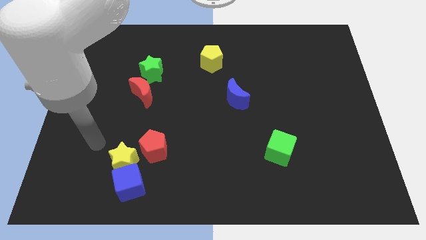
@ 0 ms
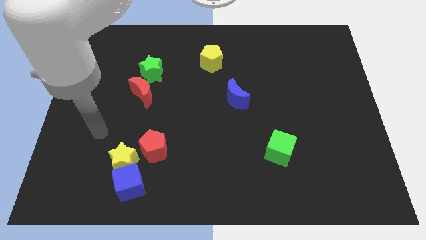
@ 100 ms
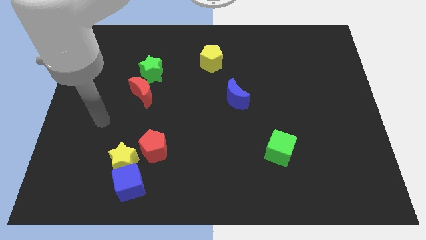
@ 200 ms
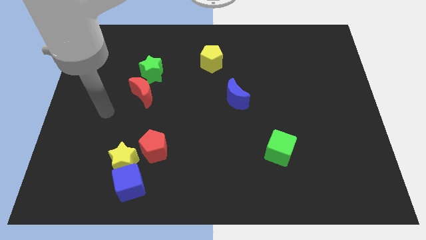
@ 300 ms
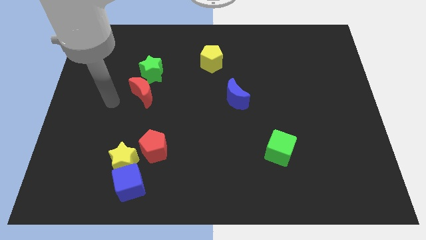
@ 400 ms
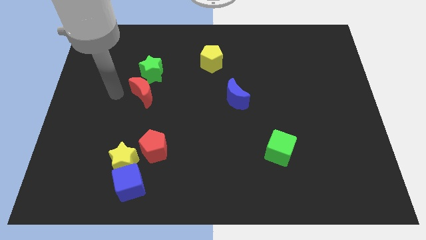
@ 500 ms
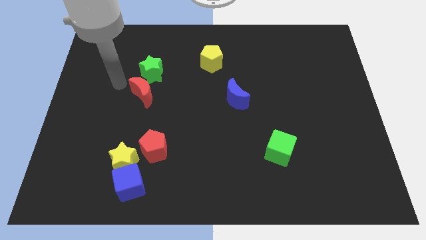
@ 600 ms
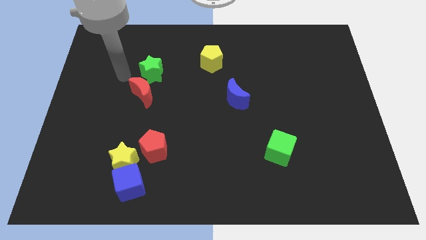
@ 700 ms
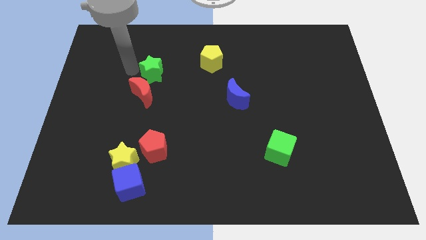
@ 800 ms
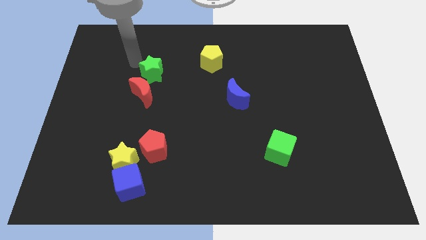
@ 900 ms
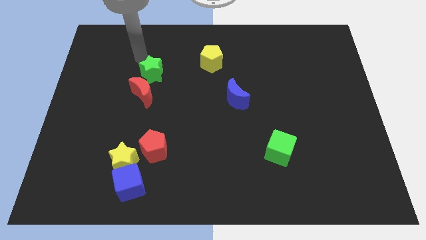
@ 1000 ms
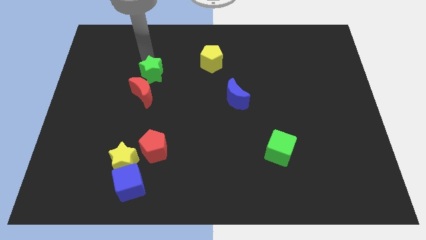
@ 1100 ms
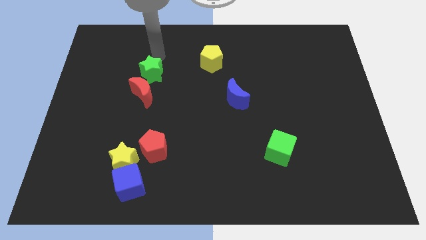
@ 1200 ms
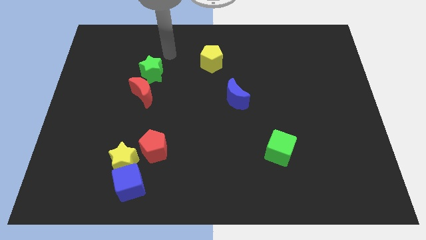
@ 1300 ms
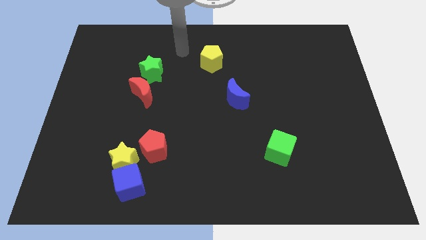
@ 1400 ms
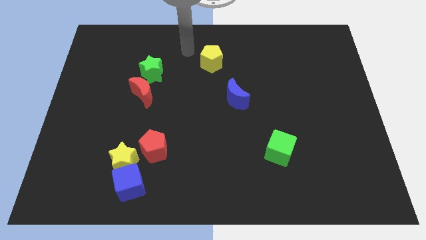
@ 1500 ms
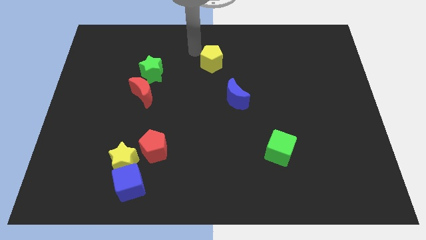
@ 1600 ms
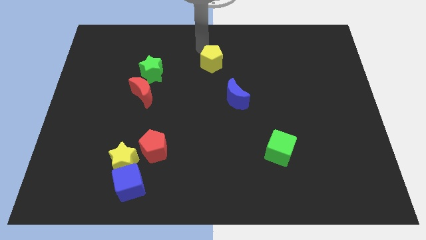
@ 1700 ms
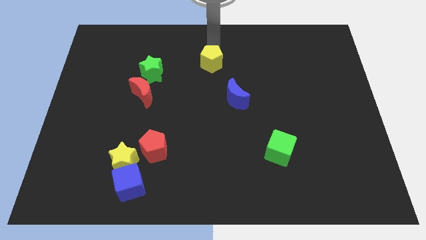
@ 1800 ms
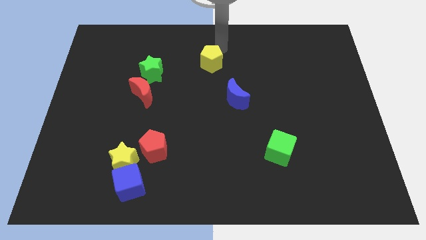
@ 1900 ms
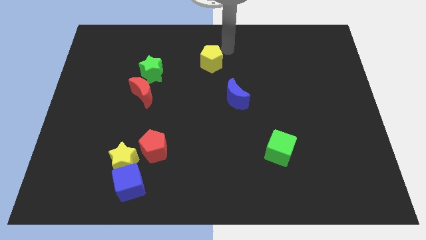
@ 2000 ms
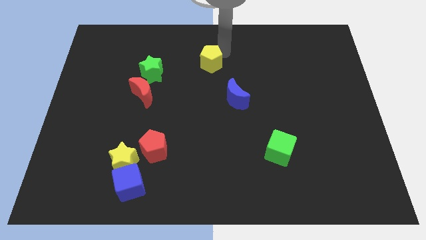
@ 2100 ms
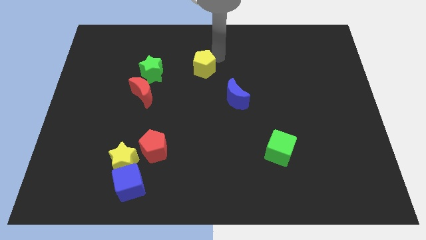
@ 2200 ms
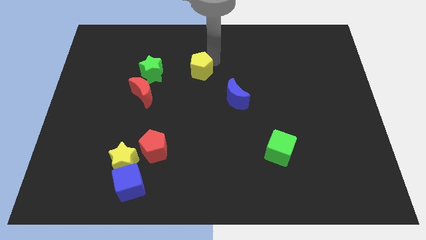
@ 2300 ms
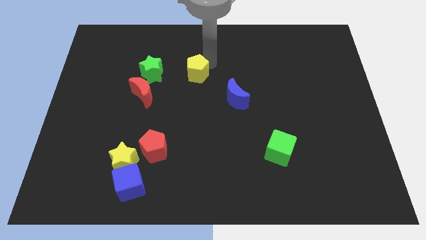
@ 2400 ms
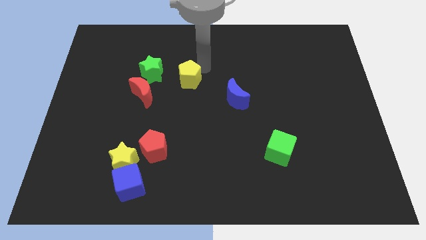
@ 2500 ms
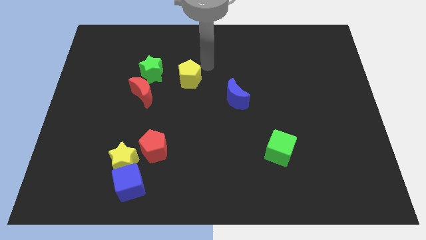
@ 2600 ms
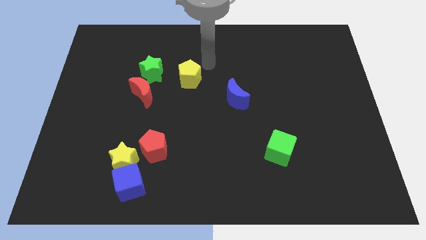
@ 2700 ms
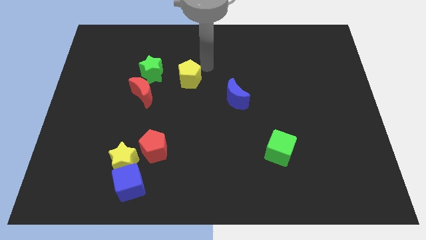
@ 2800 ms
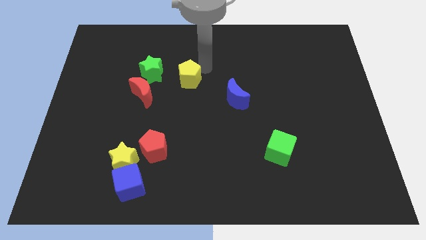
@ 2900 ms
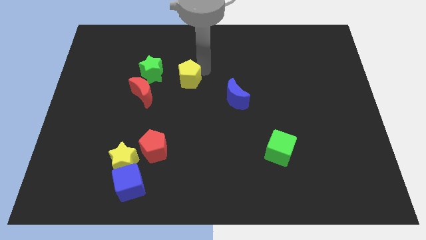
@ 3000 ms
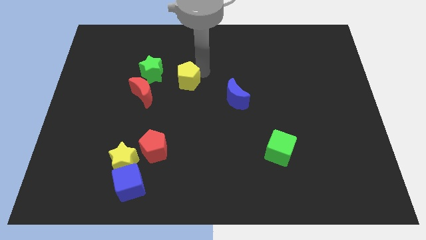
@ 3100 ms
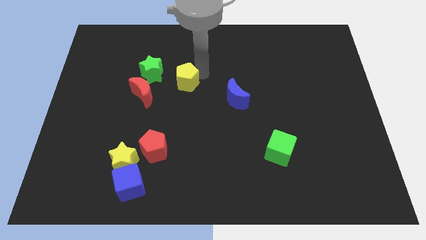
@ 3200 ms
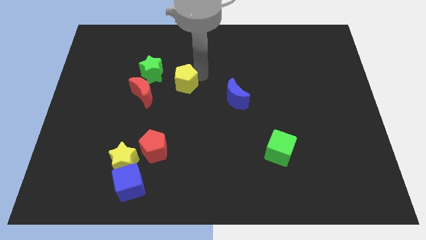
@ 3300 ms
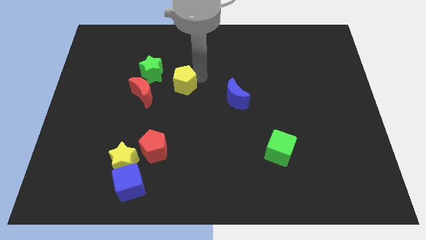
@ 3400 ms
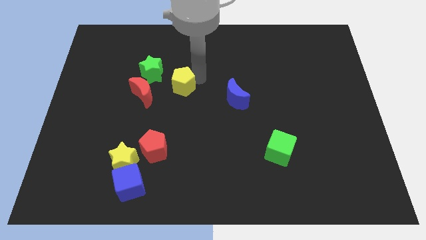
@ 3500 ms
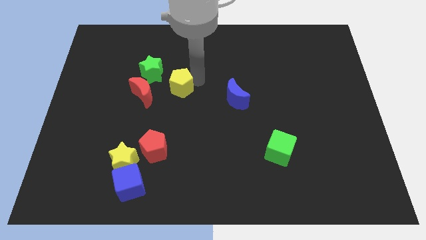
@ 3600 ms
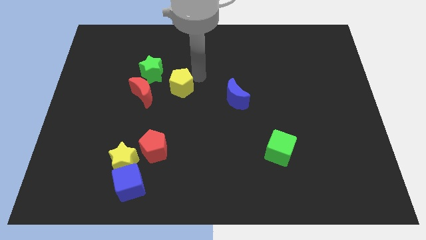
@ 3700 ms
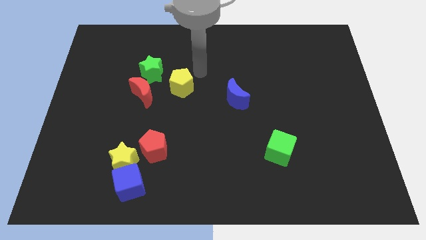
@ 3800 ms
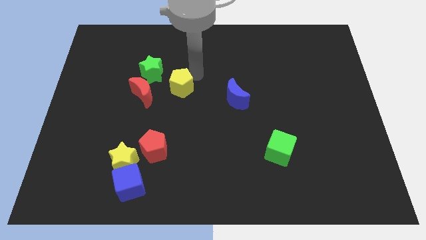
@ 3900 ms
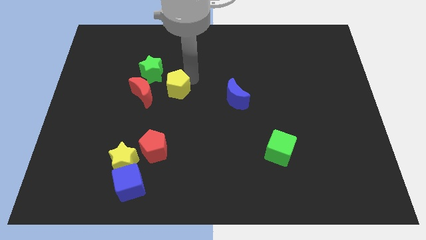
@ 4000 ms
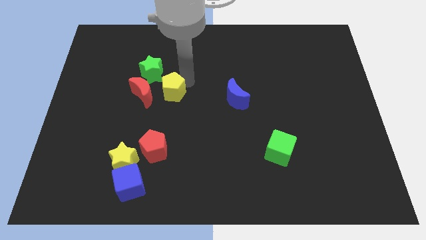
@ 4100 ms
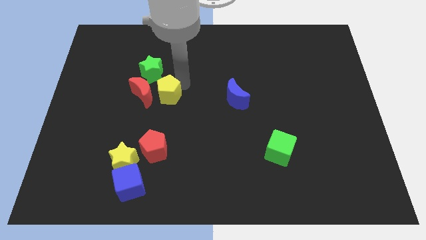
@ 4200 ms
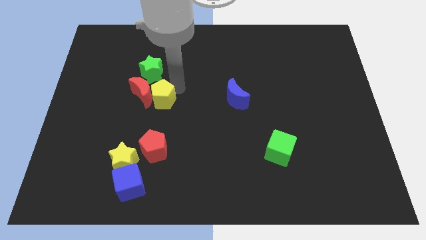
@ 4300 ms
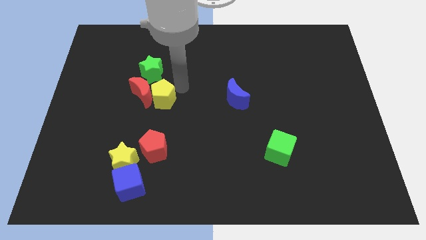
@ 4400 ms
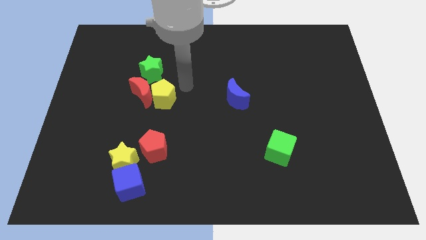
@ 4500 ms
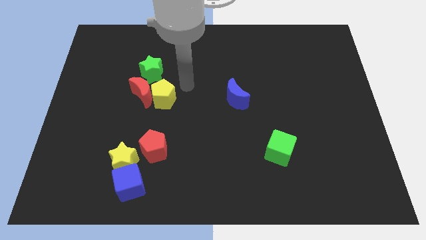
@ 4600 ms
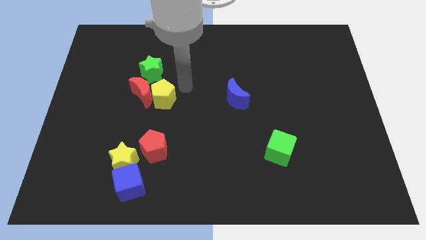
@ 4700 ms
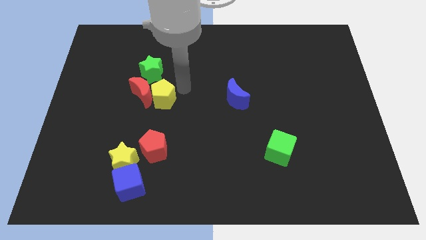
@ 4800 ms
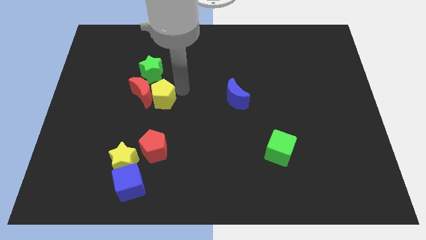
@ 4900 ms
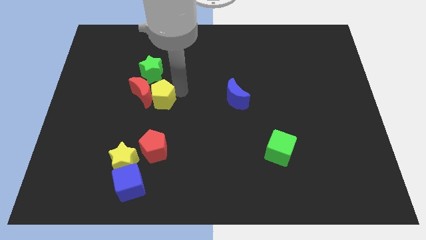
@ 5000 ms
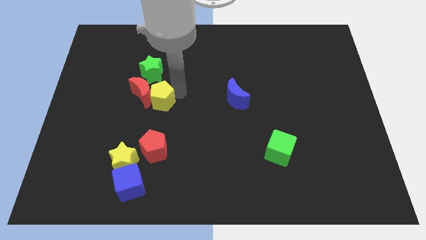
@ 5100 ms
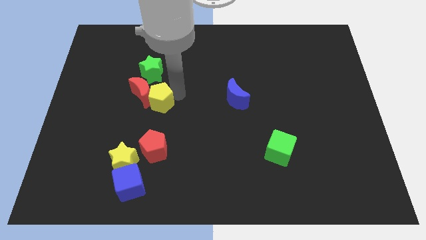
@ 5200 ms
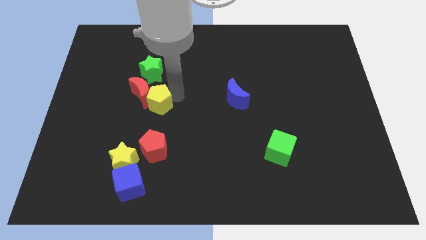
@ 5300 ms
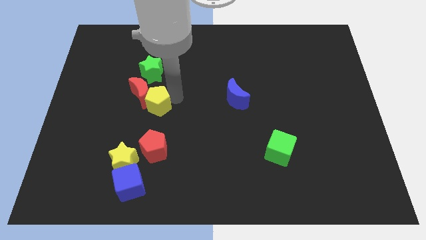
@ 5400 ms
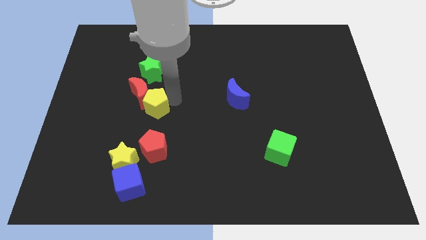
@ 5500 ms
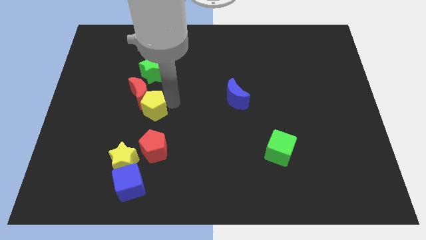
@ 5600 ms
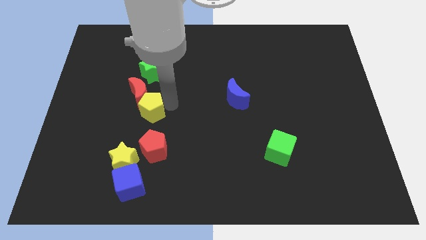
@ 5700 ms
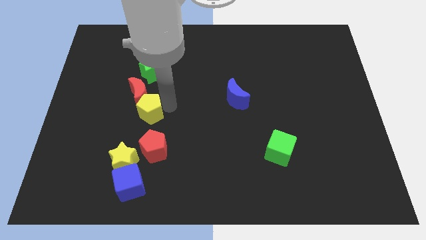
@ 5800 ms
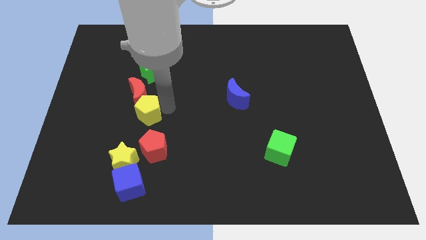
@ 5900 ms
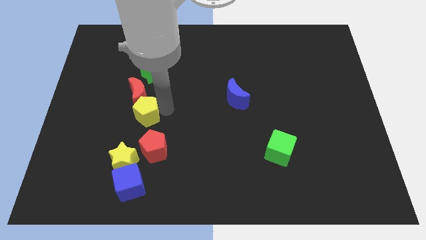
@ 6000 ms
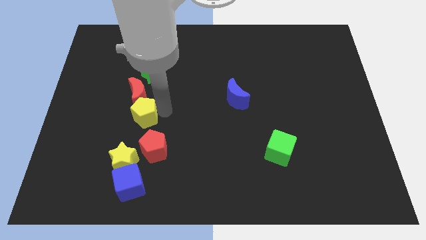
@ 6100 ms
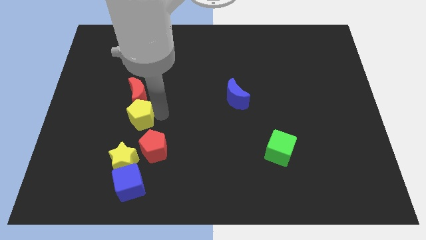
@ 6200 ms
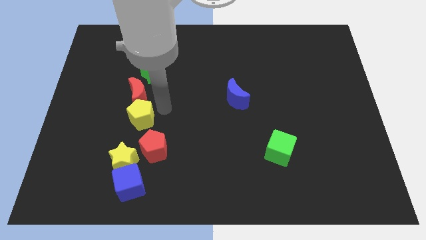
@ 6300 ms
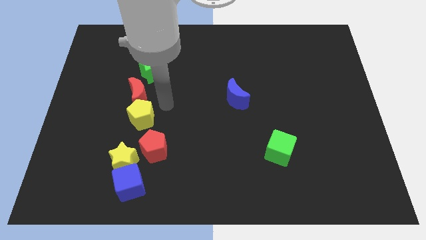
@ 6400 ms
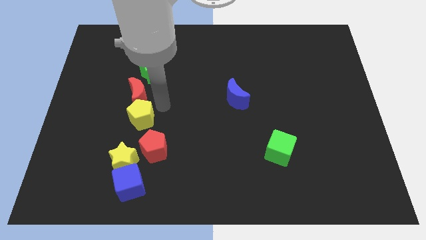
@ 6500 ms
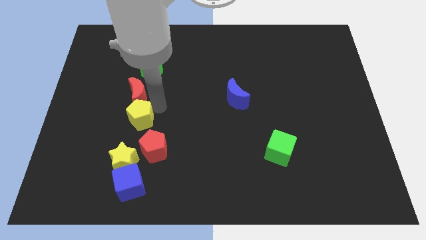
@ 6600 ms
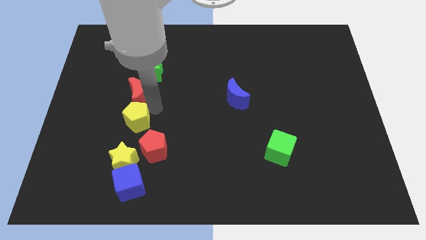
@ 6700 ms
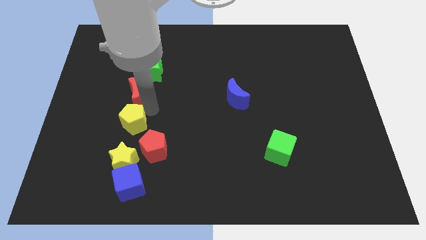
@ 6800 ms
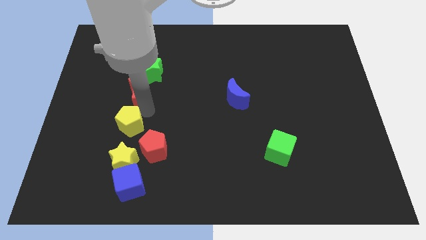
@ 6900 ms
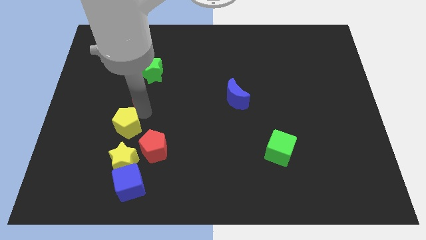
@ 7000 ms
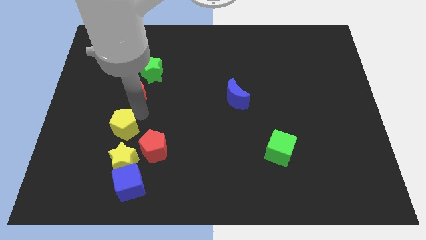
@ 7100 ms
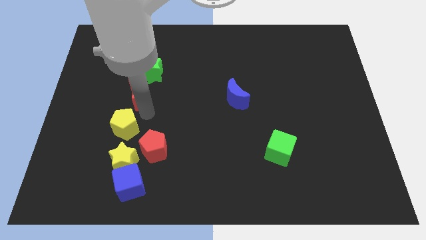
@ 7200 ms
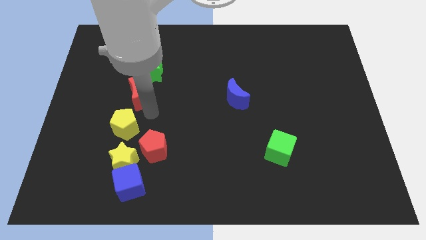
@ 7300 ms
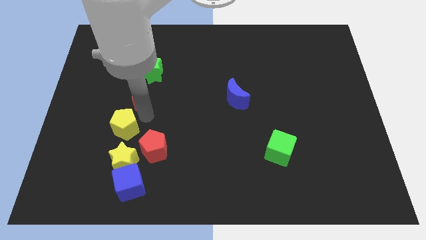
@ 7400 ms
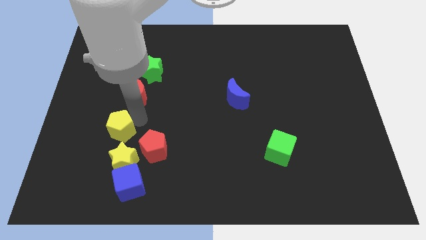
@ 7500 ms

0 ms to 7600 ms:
push the yellow pentagon diagonally up and to the left of the yellow star
